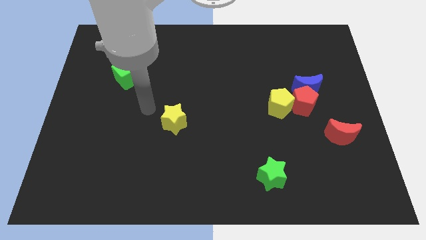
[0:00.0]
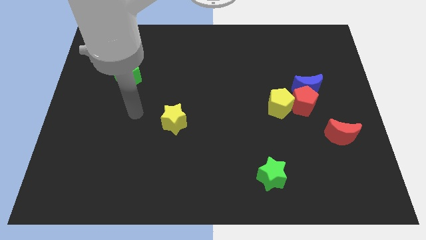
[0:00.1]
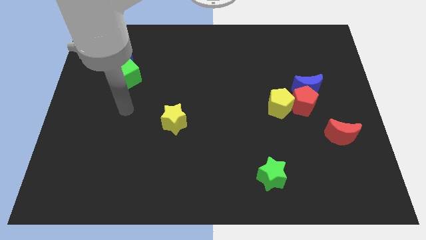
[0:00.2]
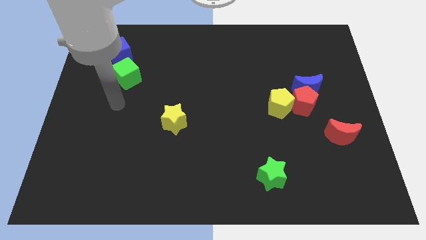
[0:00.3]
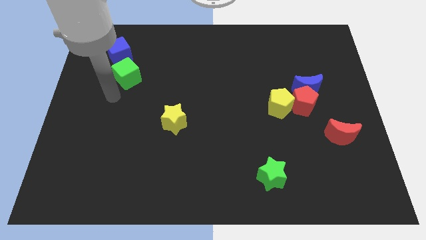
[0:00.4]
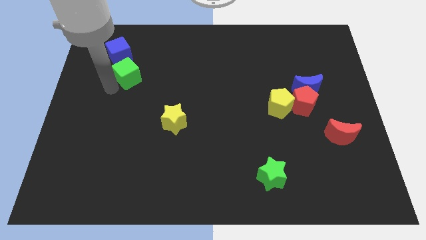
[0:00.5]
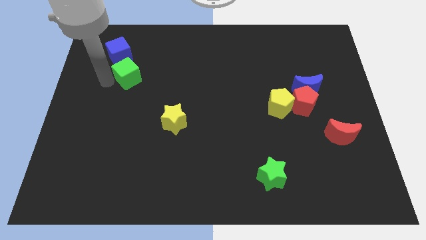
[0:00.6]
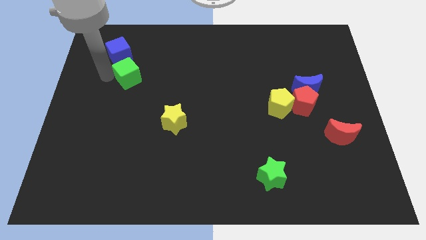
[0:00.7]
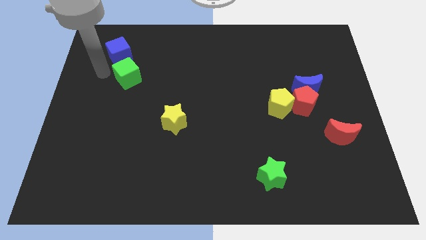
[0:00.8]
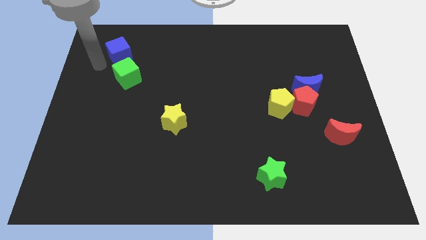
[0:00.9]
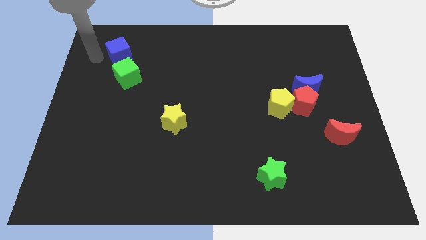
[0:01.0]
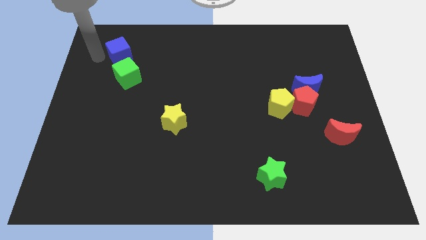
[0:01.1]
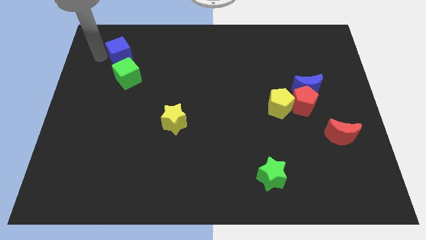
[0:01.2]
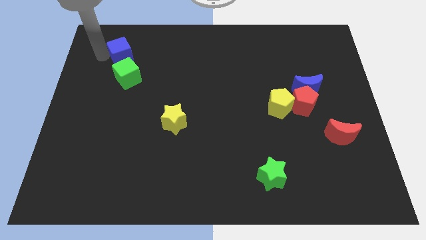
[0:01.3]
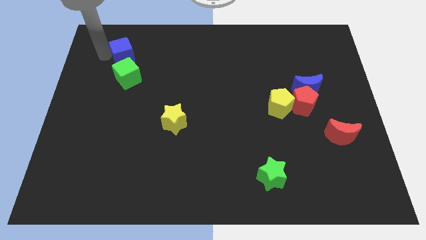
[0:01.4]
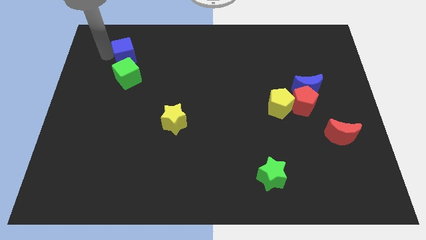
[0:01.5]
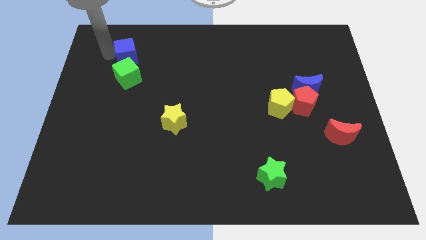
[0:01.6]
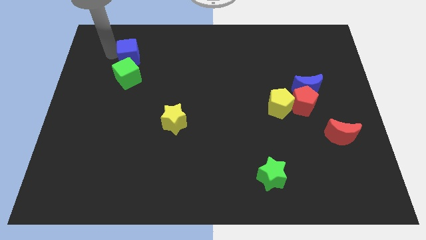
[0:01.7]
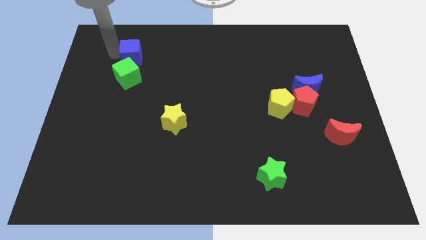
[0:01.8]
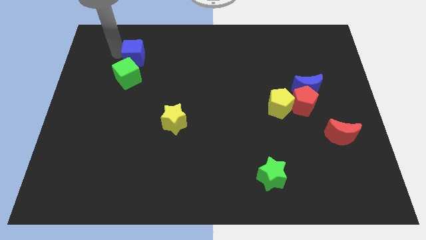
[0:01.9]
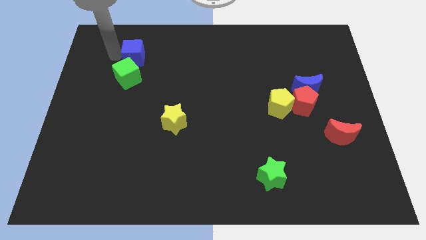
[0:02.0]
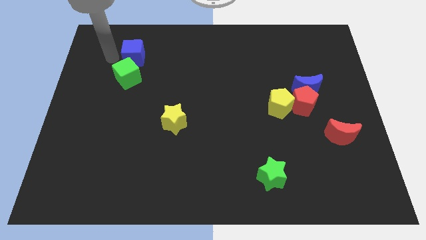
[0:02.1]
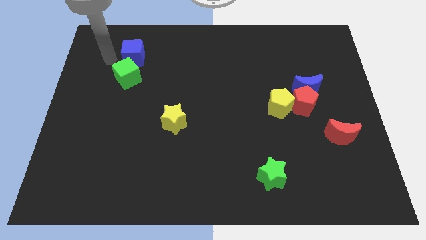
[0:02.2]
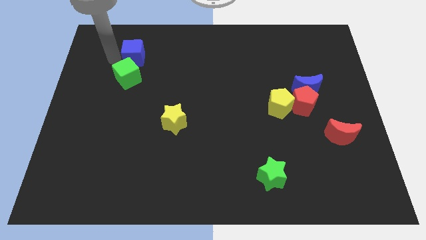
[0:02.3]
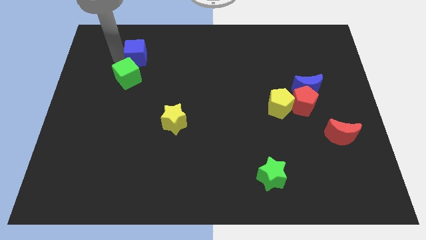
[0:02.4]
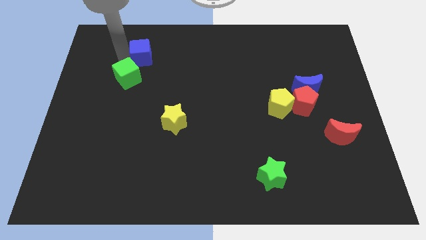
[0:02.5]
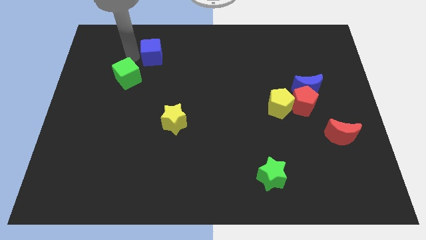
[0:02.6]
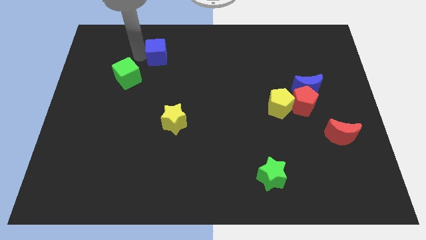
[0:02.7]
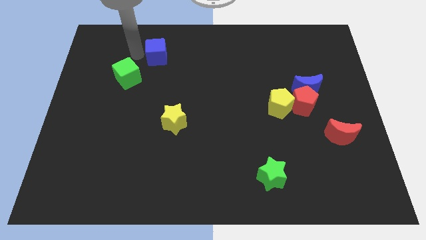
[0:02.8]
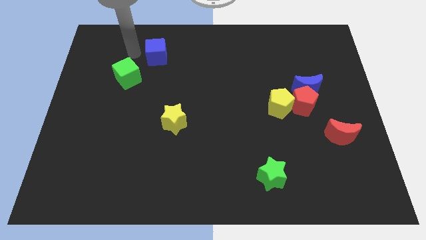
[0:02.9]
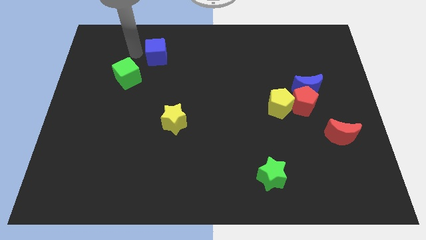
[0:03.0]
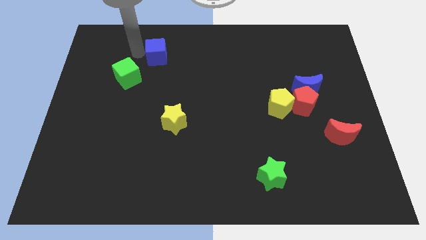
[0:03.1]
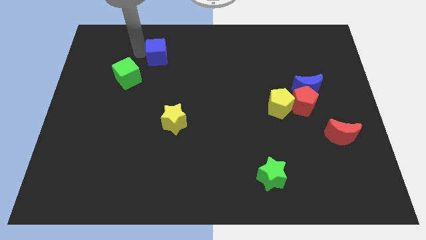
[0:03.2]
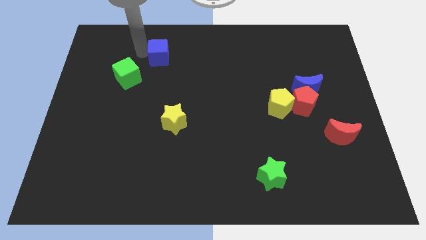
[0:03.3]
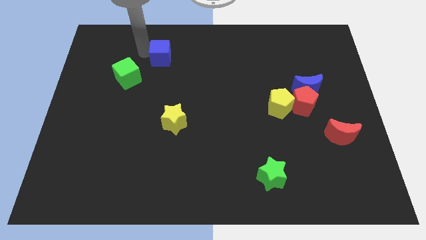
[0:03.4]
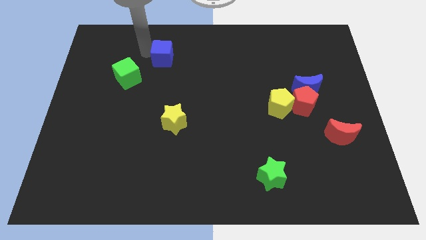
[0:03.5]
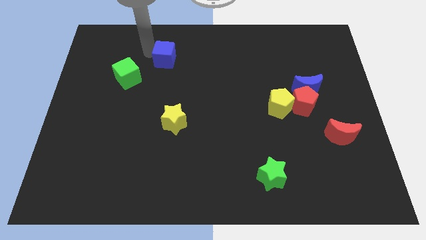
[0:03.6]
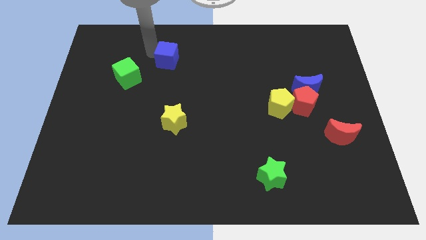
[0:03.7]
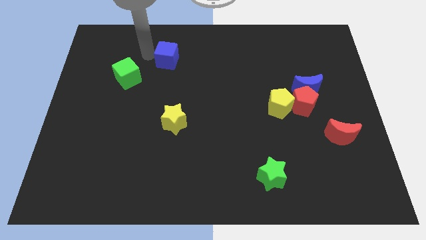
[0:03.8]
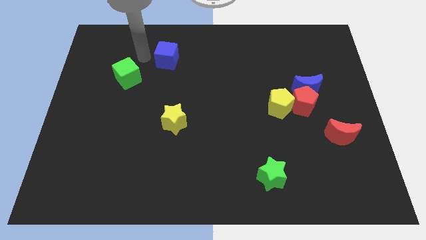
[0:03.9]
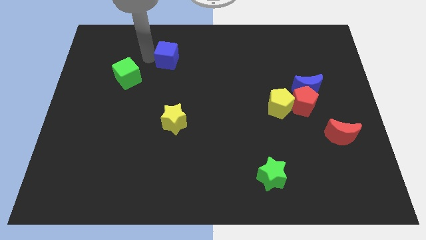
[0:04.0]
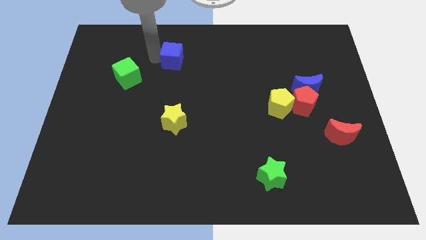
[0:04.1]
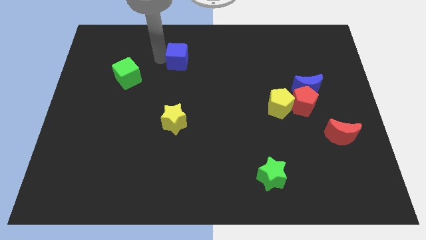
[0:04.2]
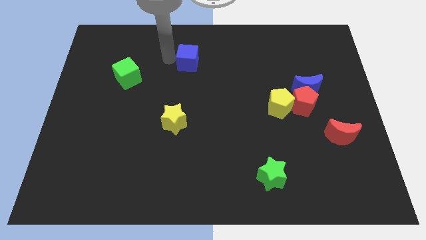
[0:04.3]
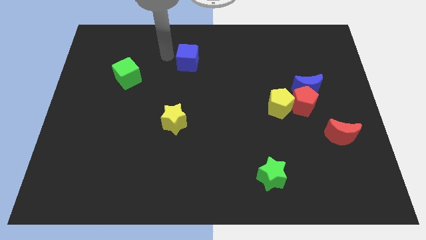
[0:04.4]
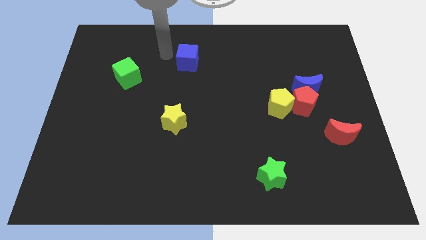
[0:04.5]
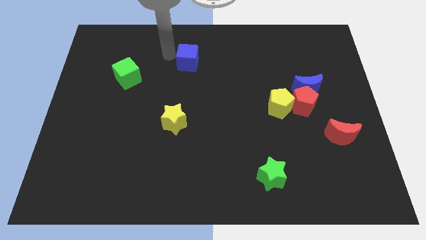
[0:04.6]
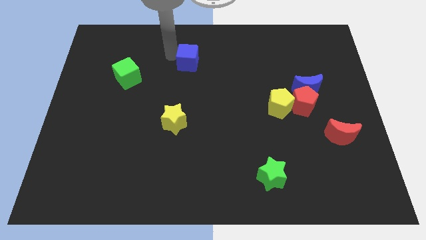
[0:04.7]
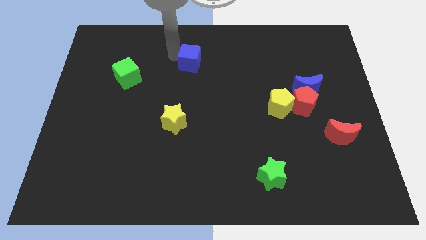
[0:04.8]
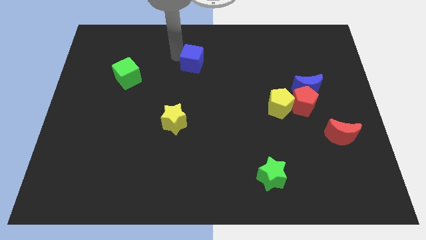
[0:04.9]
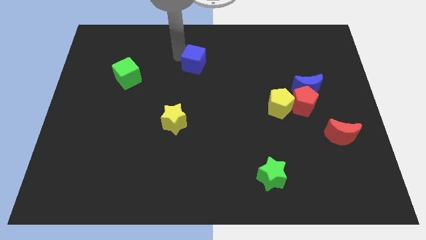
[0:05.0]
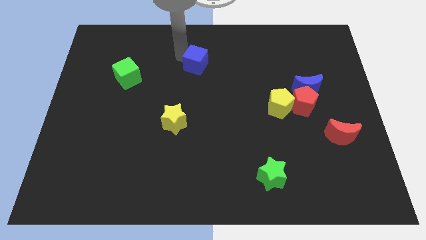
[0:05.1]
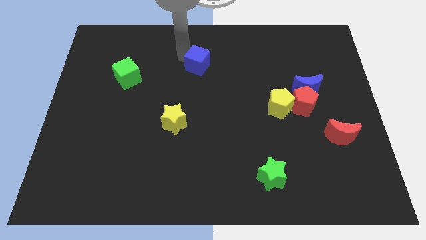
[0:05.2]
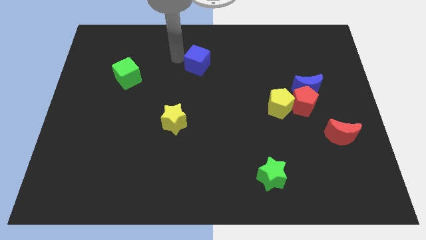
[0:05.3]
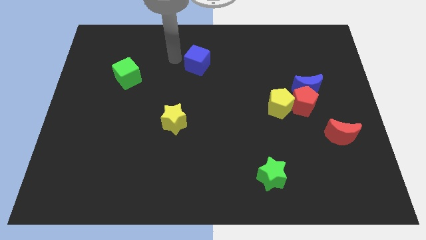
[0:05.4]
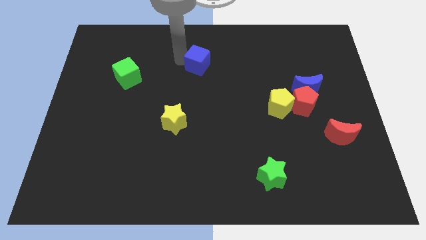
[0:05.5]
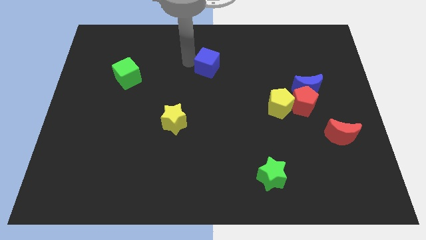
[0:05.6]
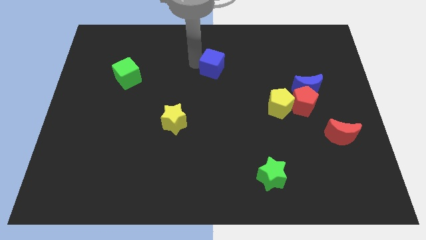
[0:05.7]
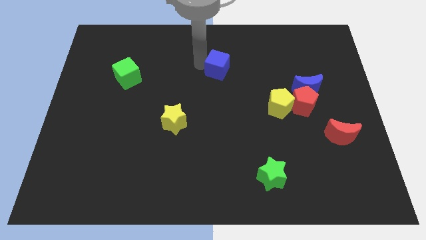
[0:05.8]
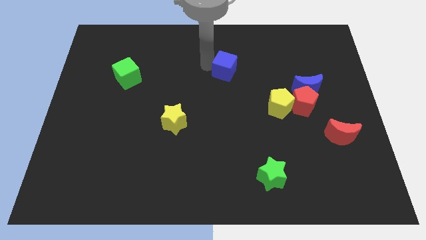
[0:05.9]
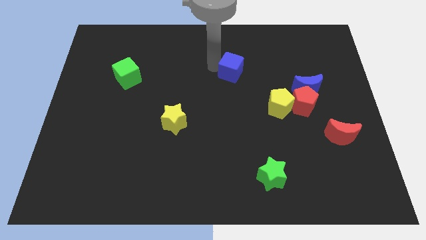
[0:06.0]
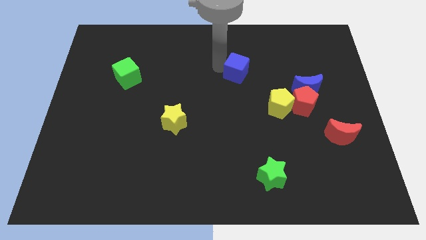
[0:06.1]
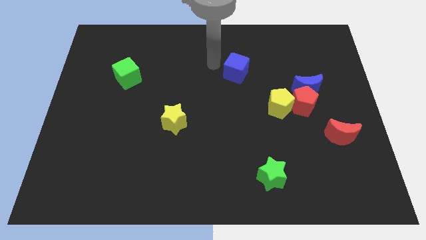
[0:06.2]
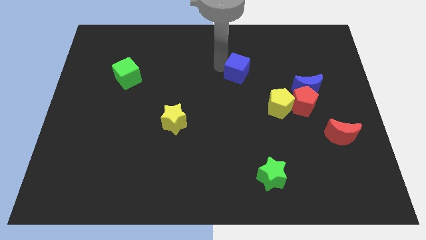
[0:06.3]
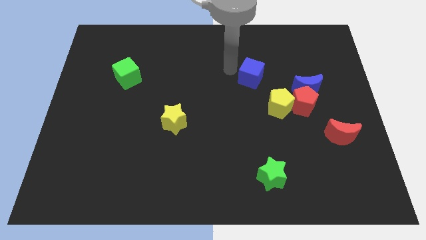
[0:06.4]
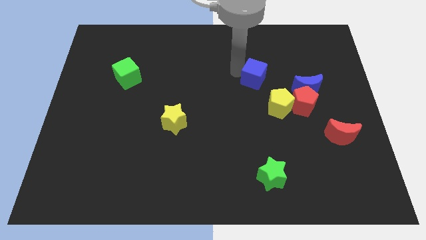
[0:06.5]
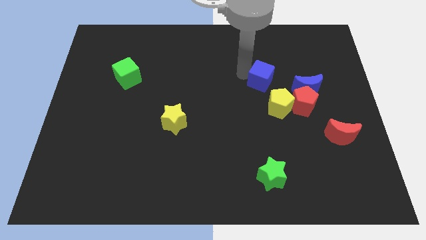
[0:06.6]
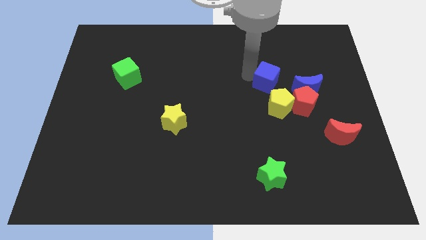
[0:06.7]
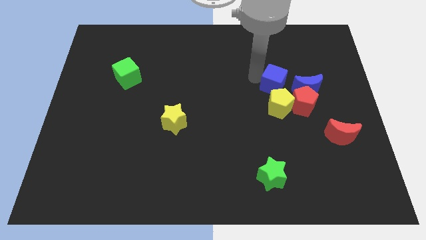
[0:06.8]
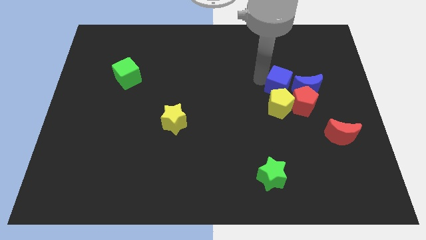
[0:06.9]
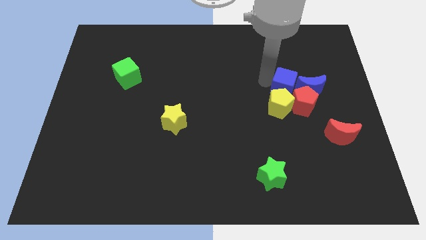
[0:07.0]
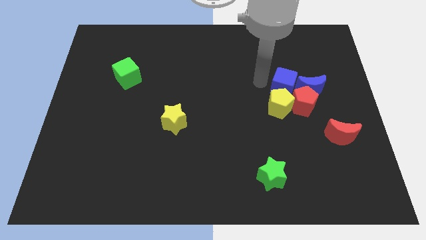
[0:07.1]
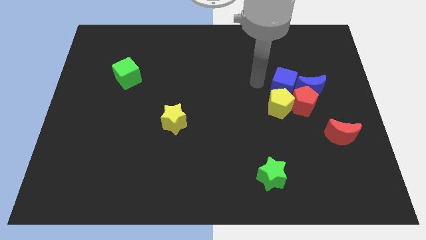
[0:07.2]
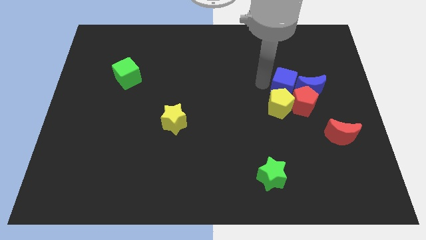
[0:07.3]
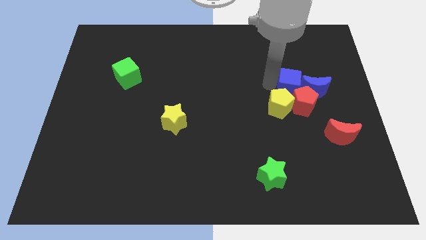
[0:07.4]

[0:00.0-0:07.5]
put the blue cube close to the blue moon
